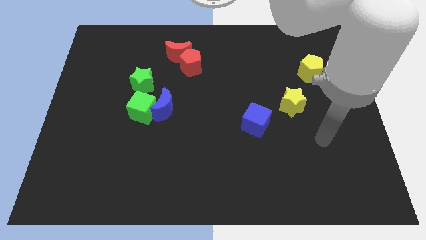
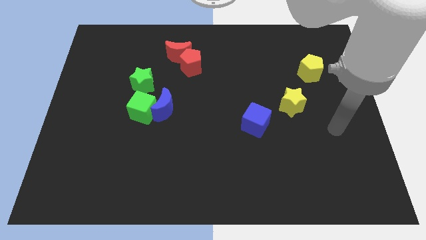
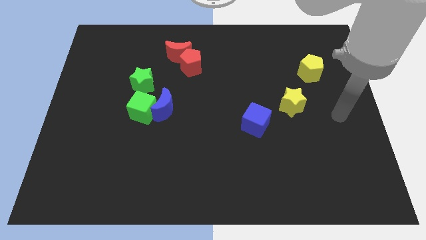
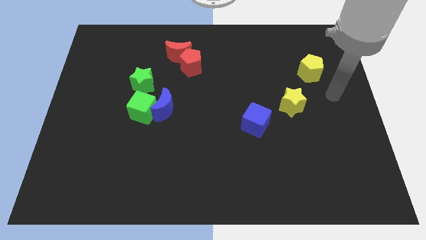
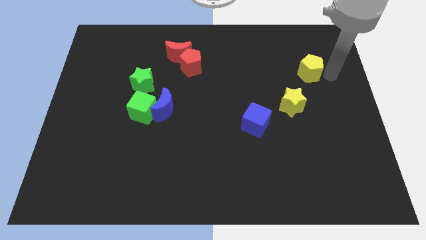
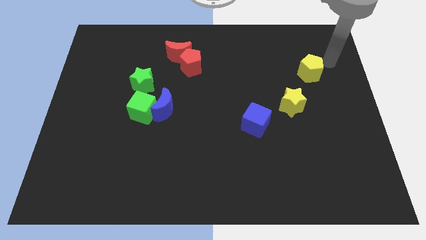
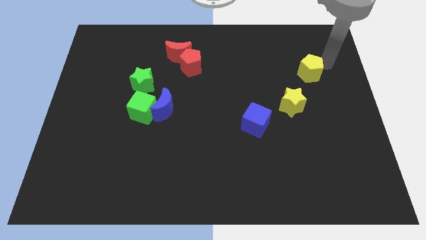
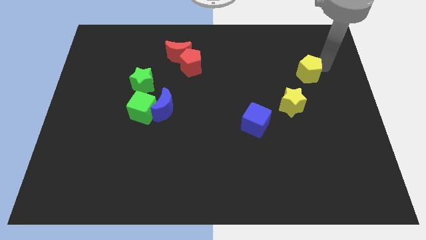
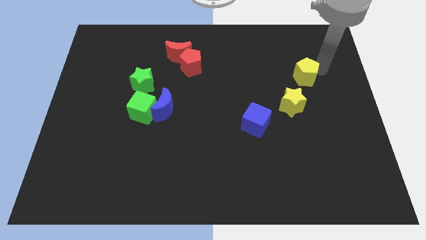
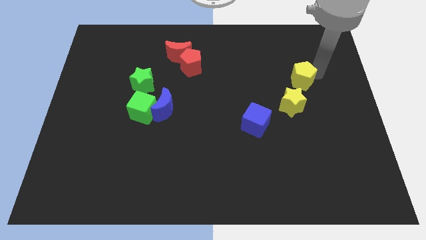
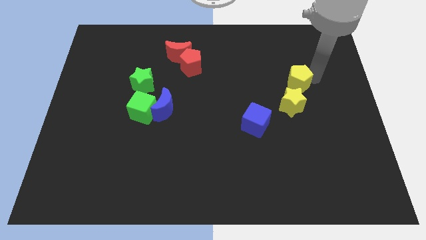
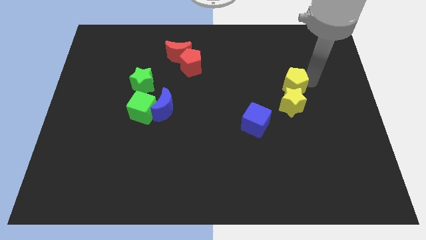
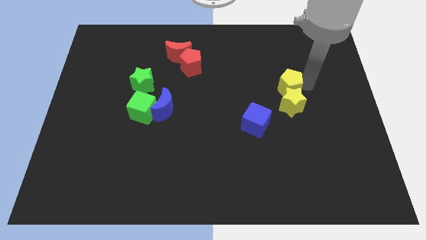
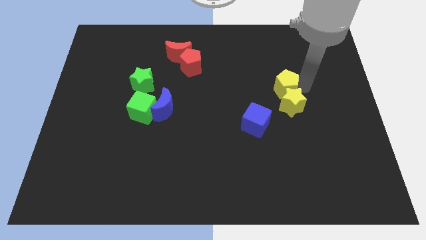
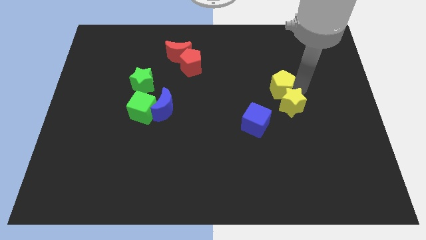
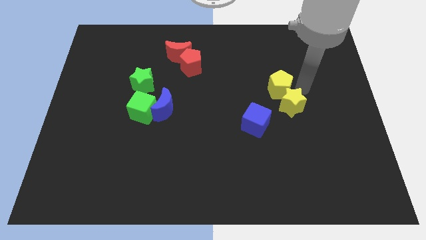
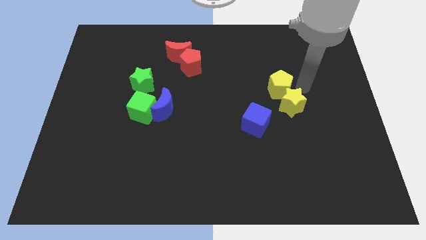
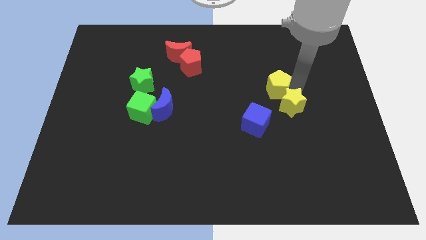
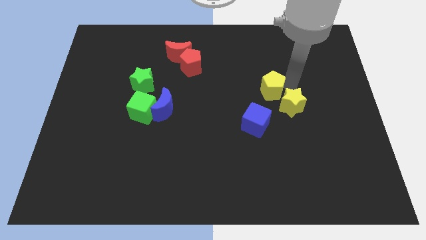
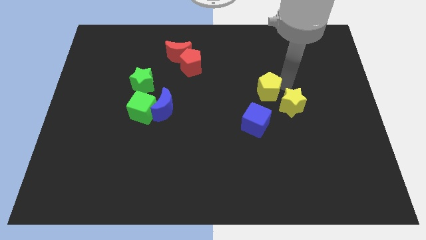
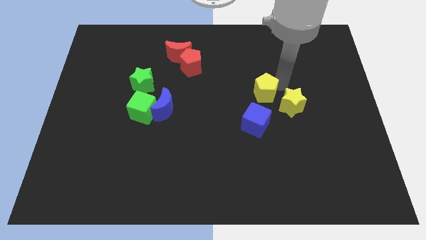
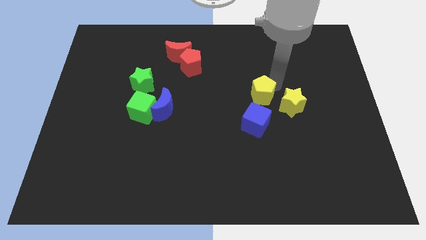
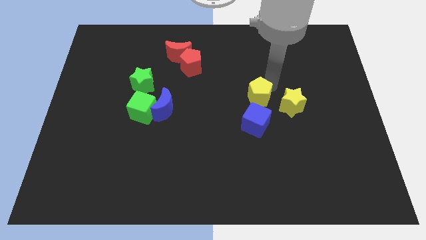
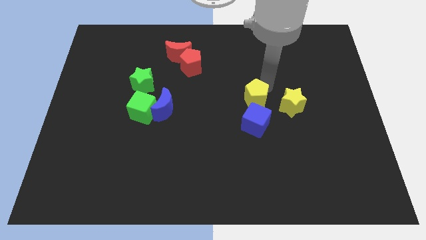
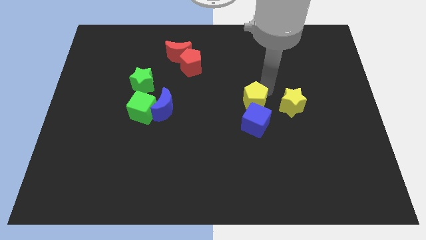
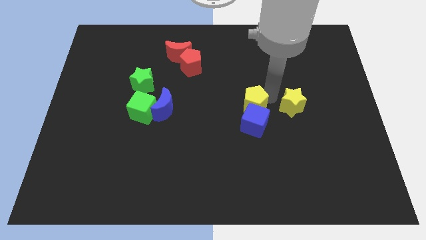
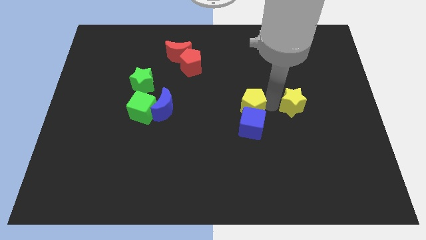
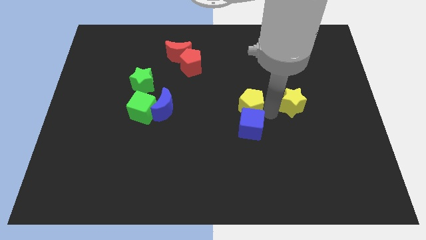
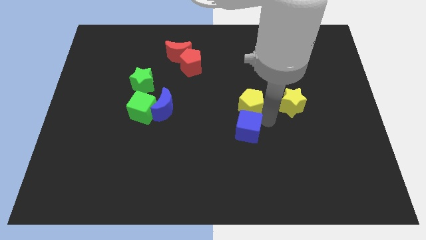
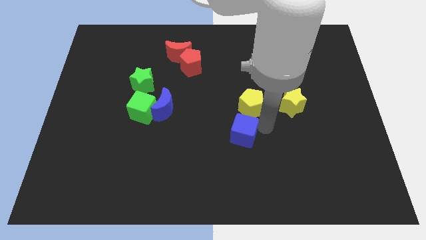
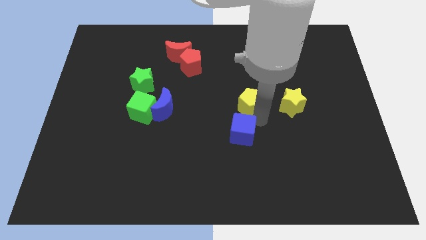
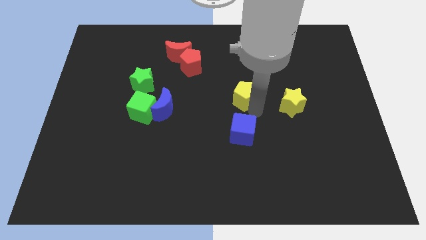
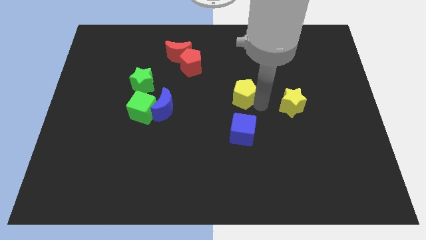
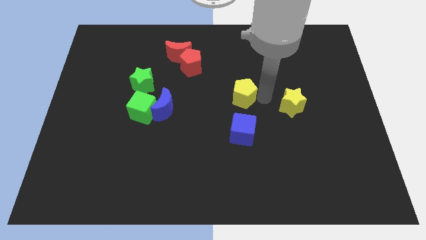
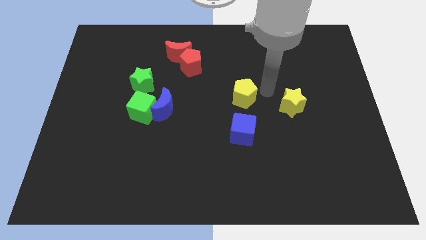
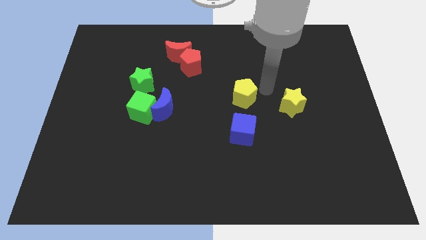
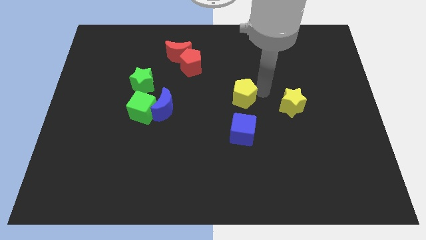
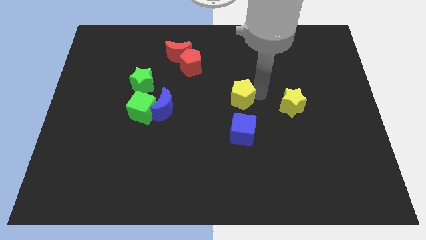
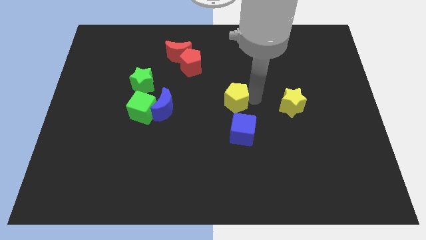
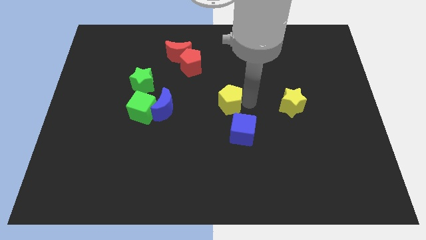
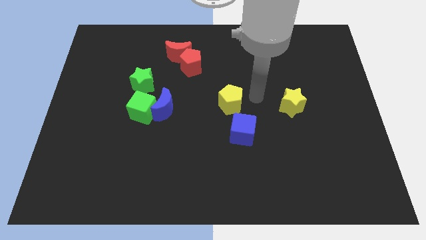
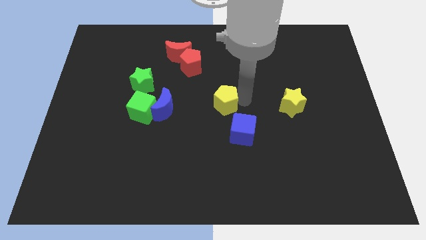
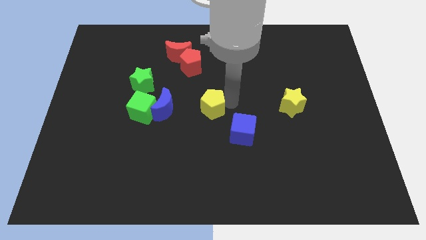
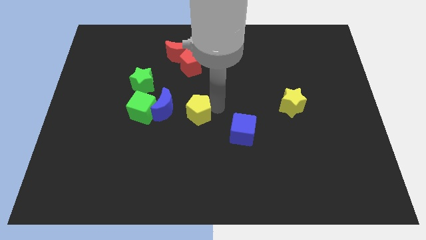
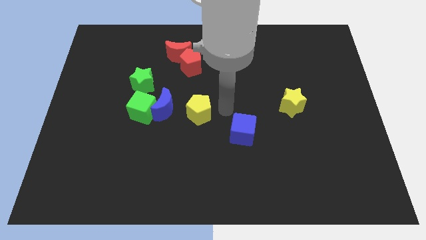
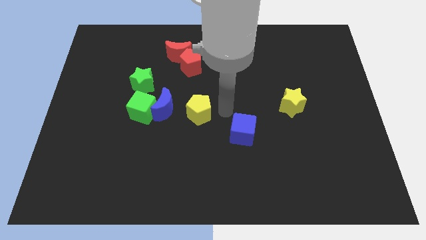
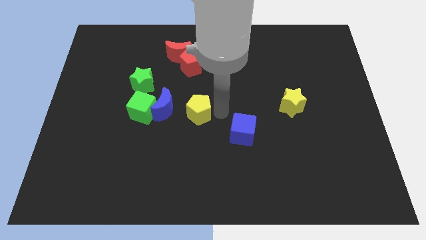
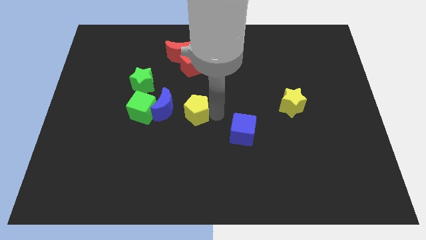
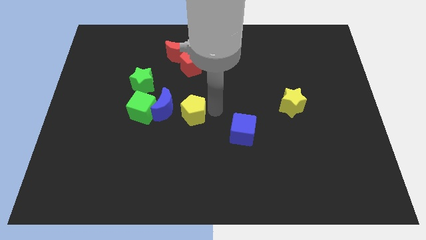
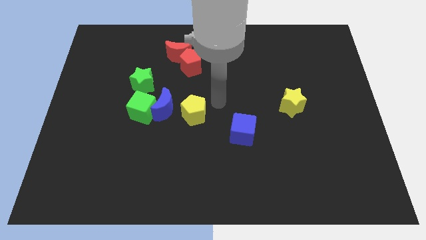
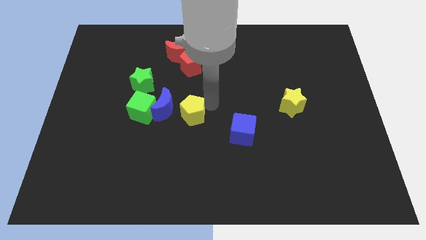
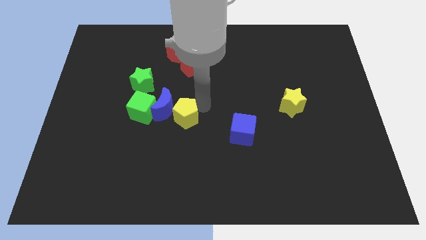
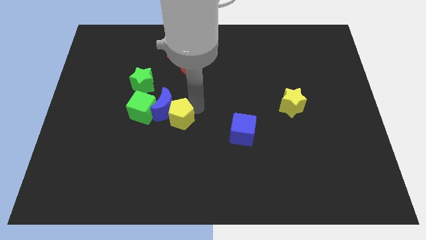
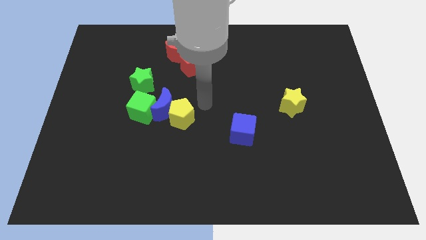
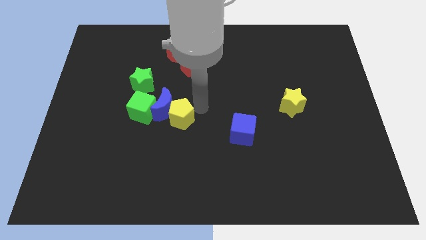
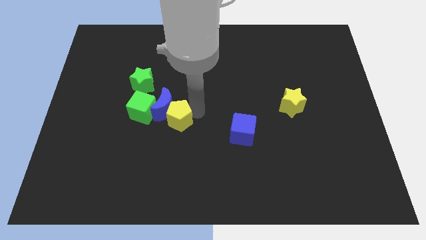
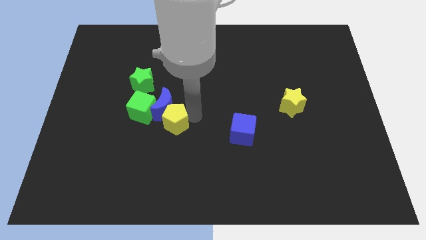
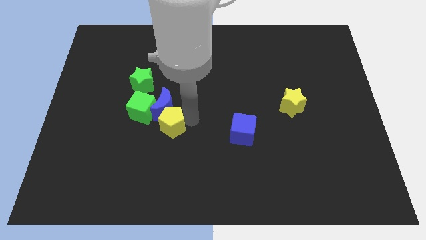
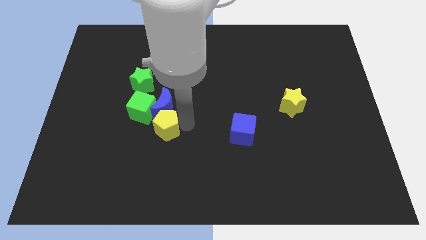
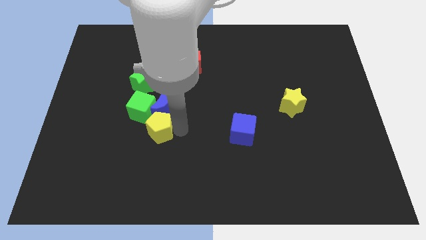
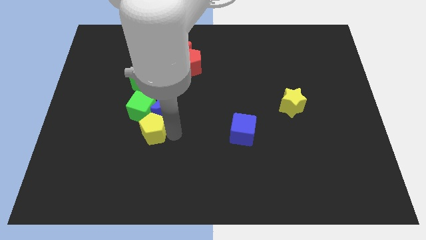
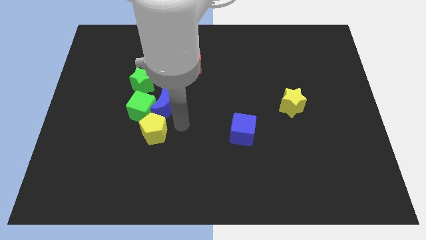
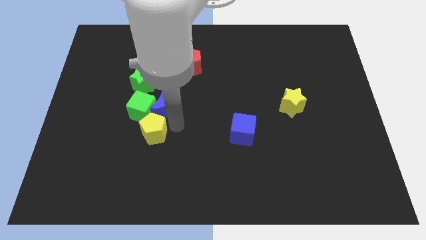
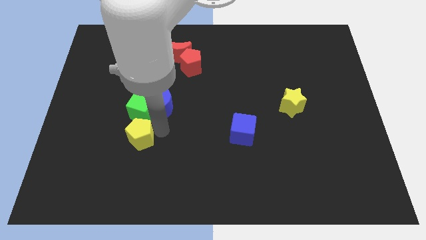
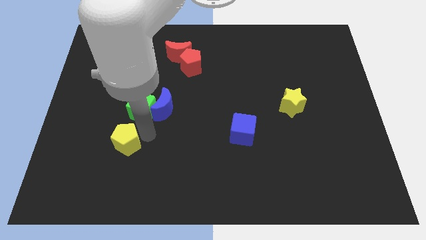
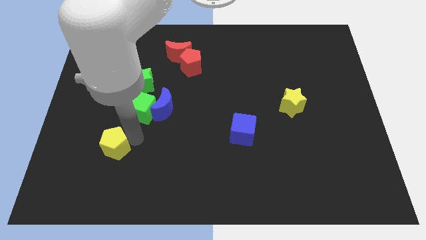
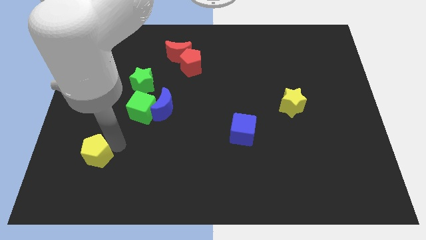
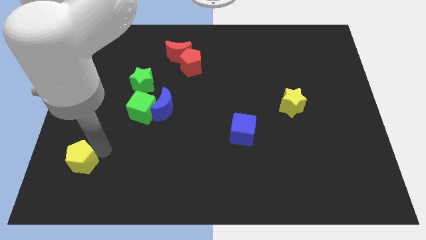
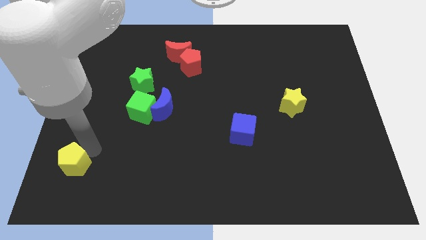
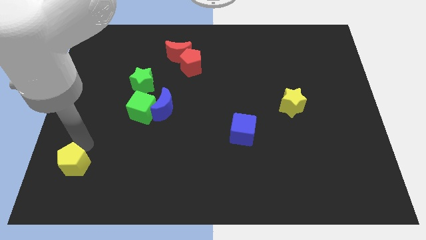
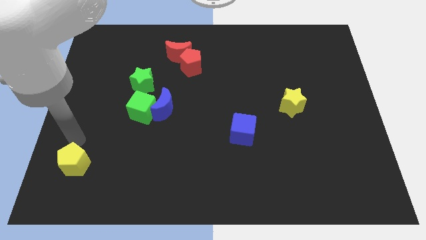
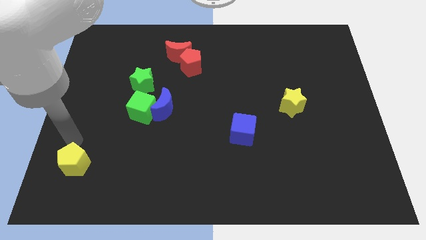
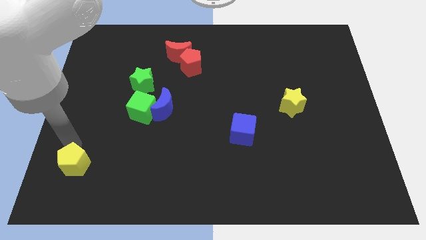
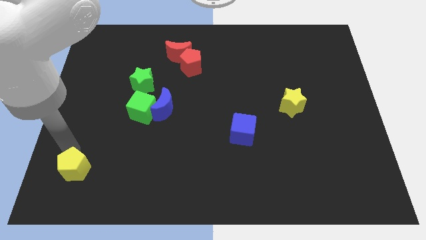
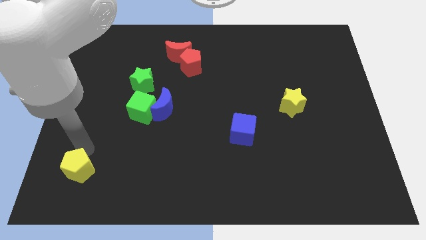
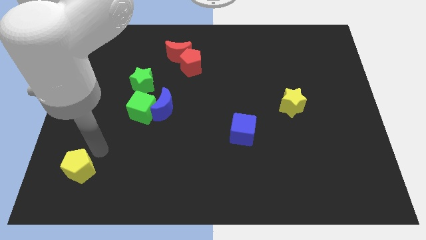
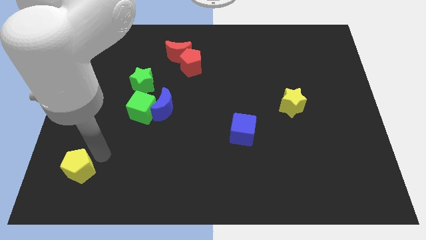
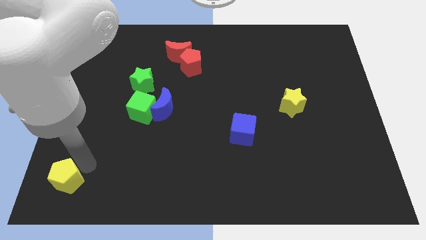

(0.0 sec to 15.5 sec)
push the yellow pentagon to the bottom left
